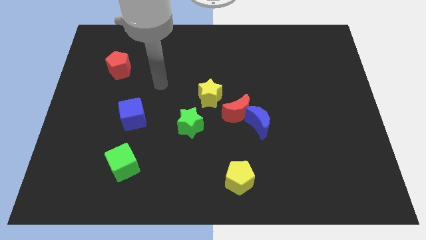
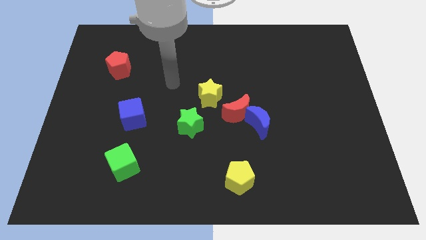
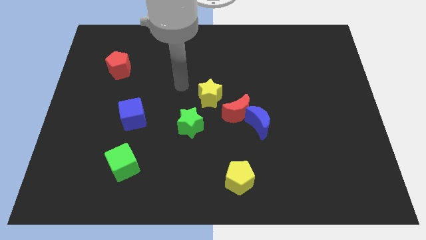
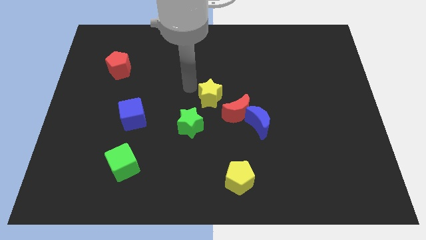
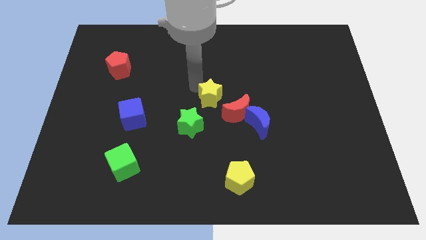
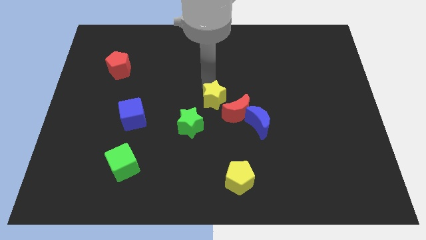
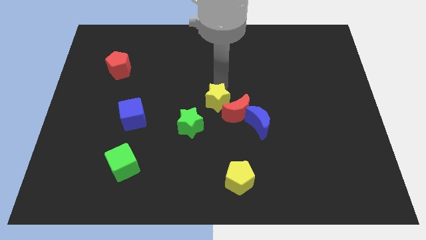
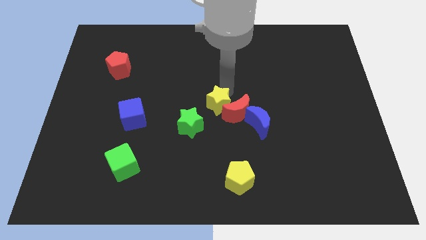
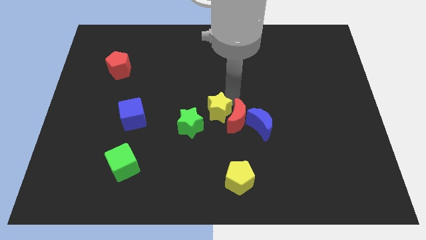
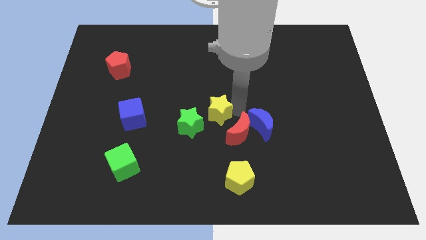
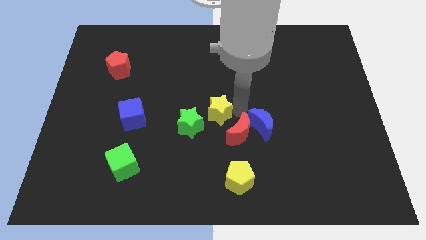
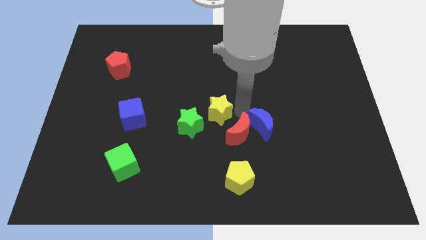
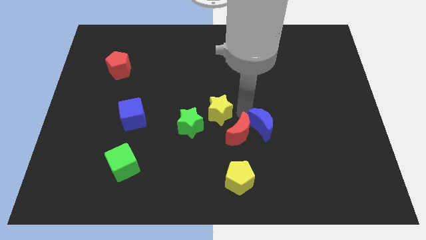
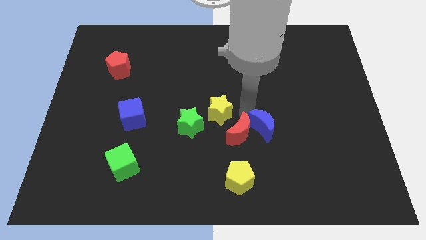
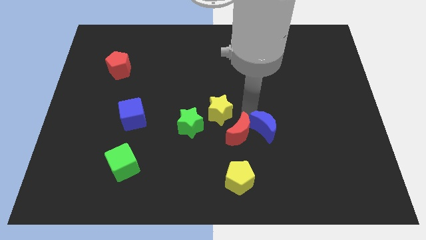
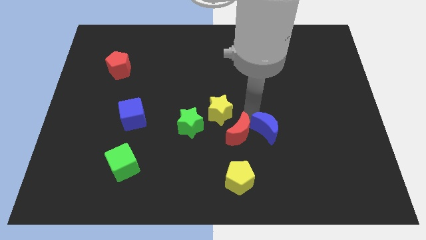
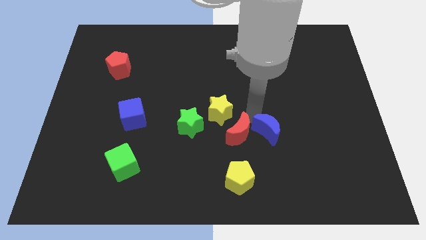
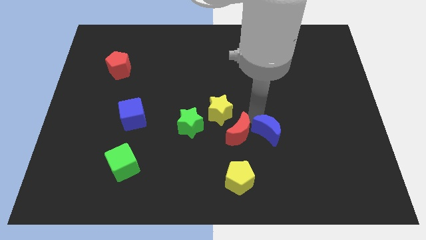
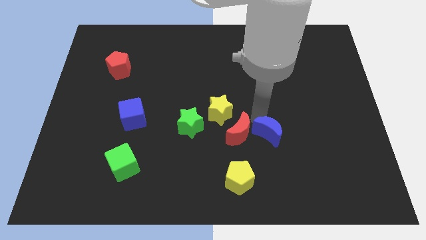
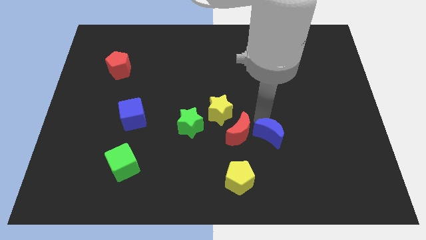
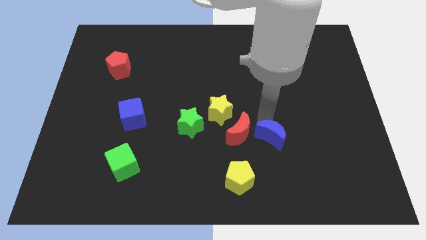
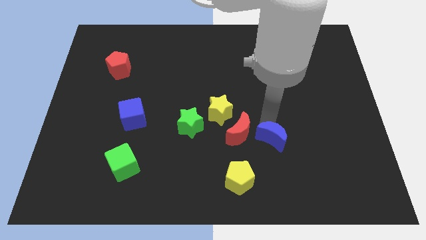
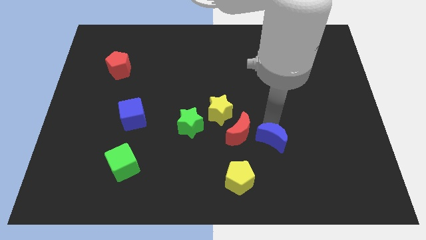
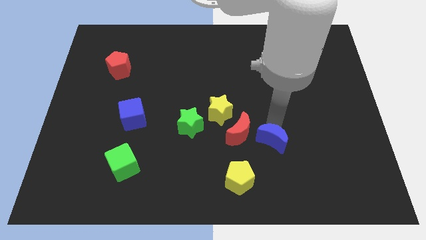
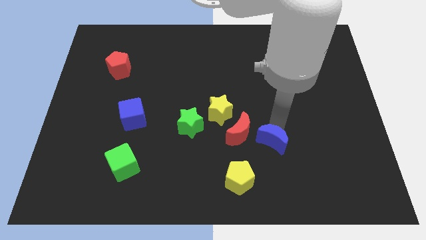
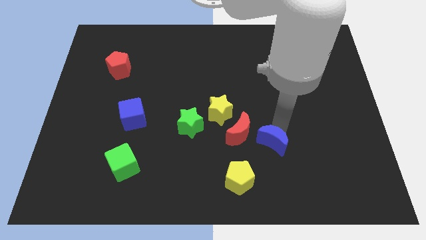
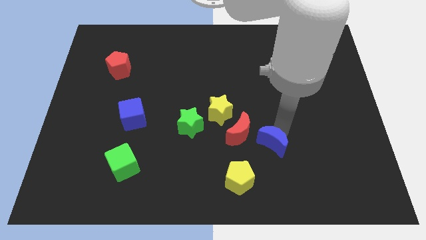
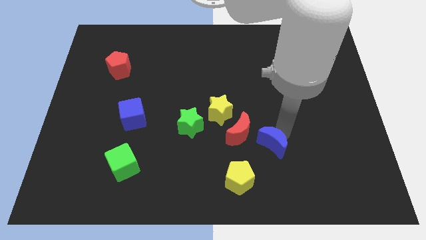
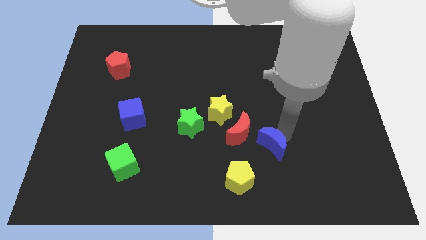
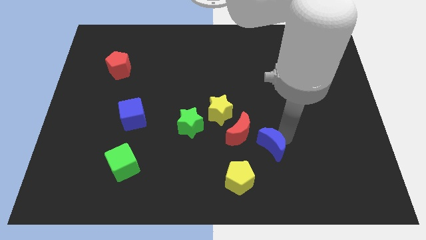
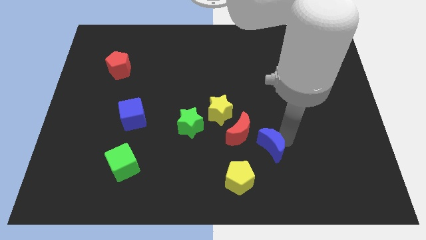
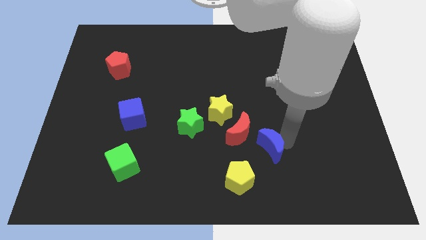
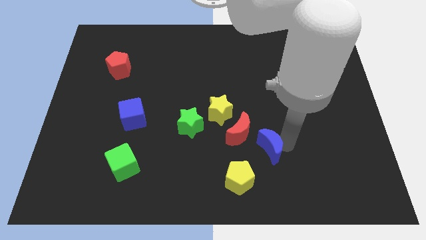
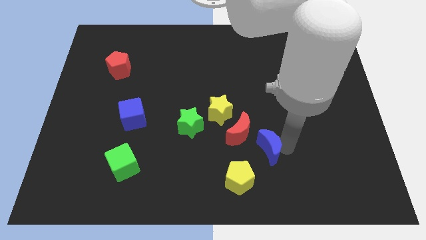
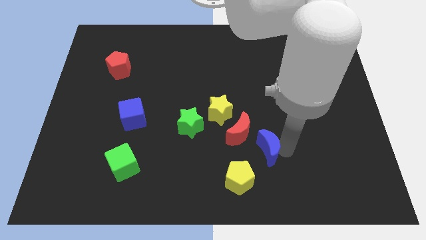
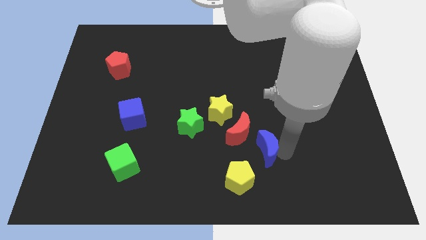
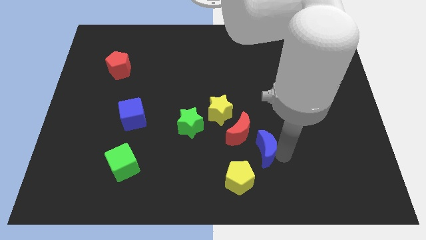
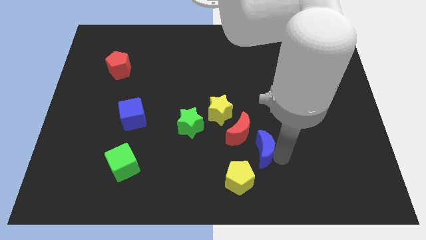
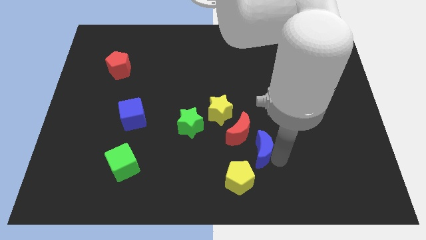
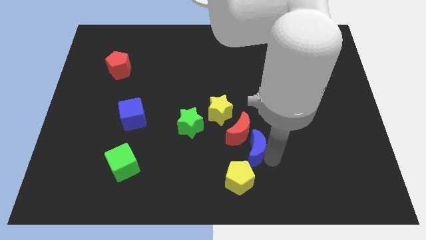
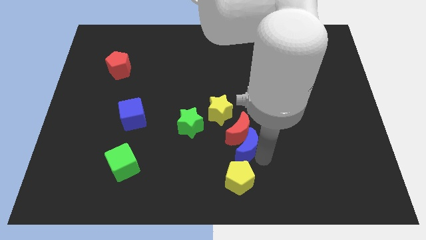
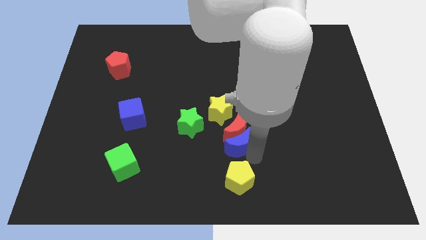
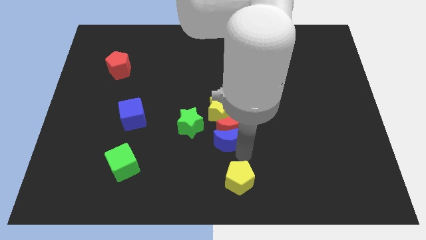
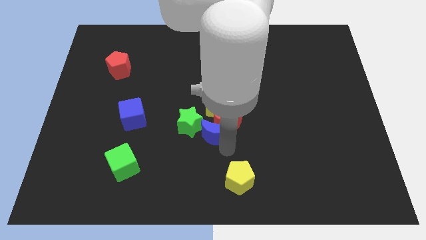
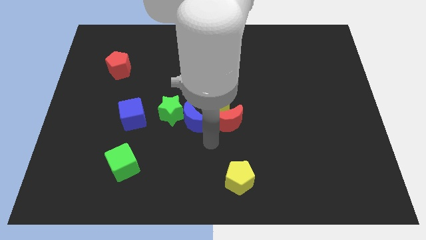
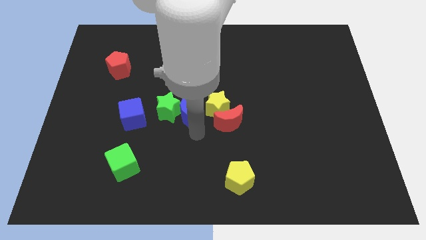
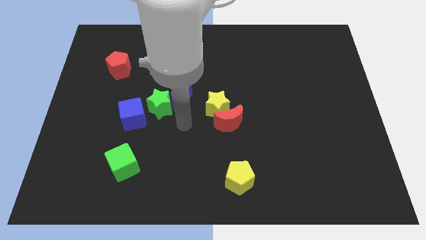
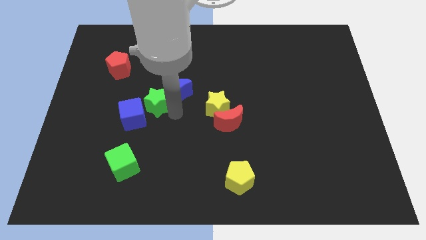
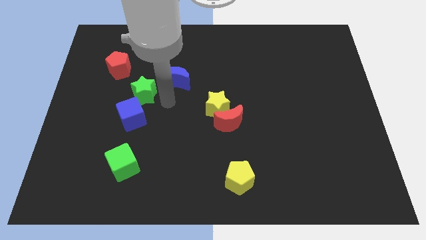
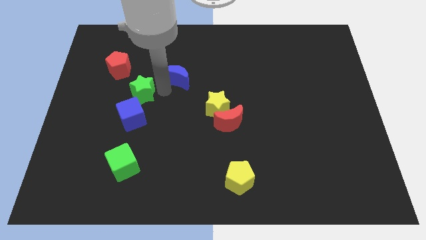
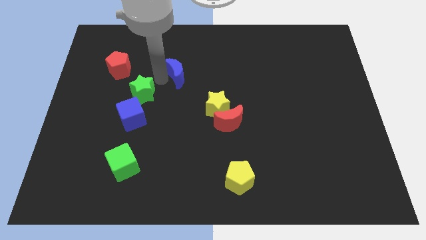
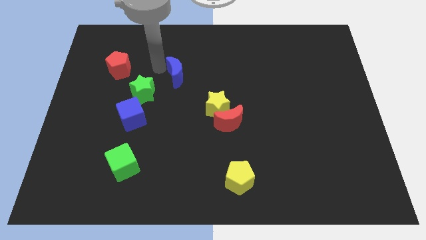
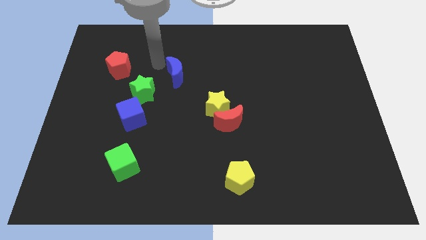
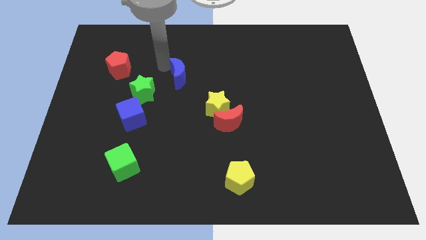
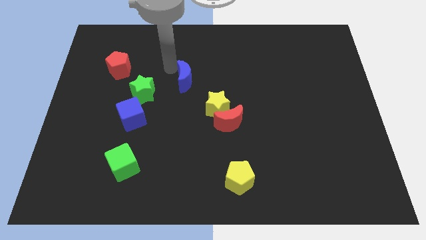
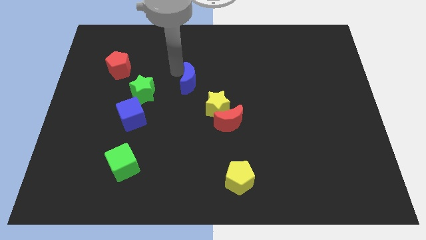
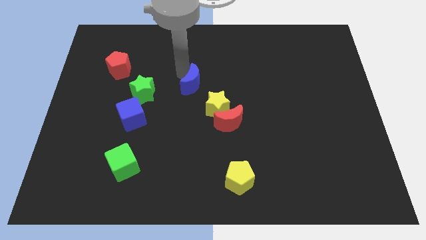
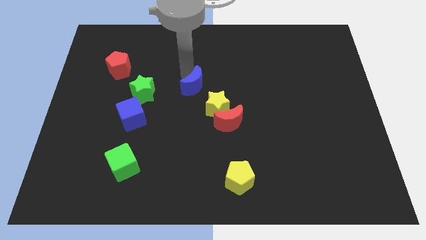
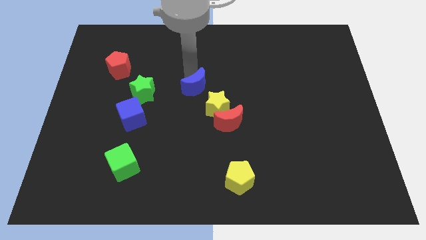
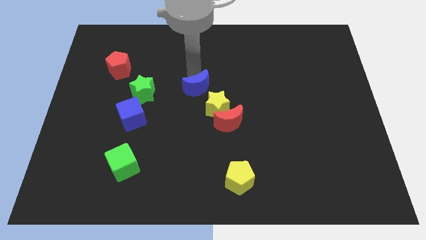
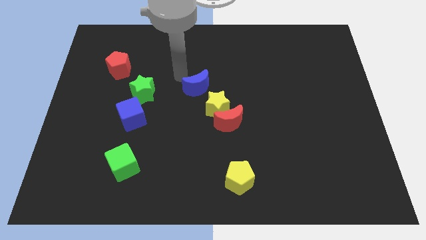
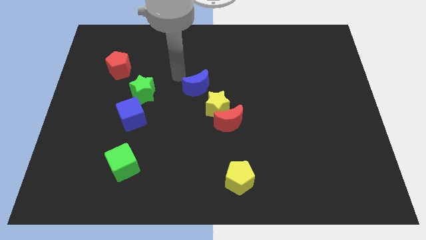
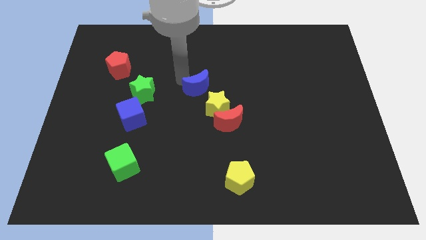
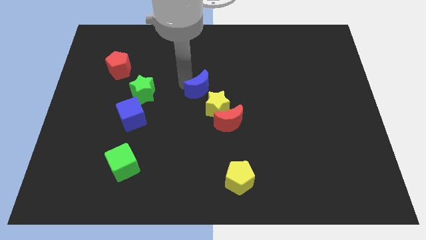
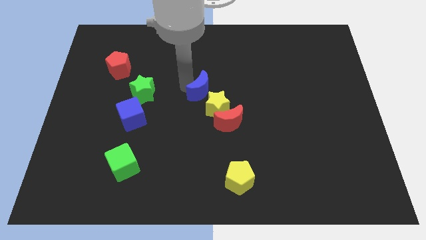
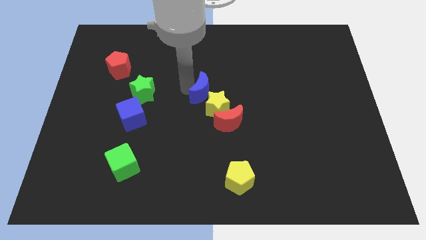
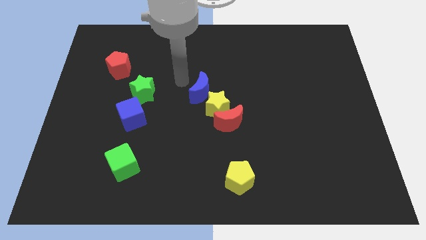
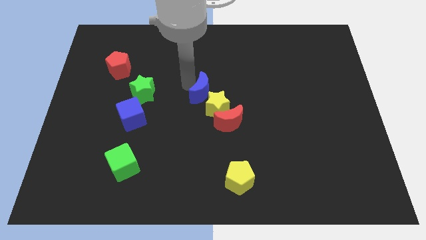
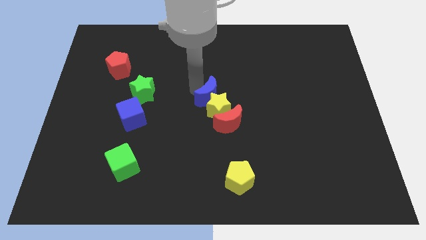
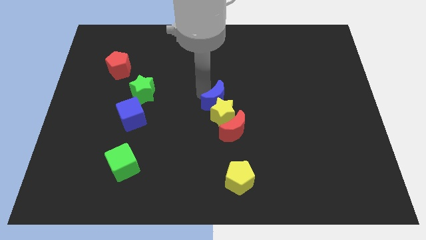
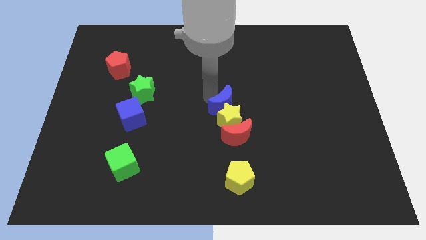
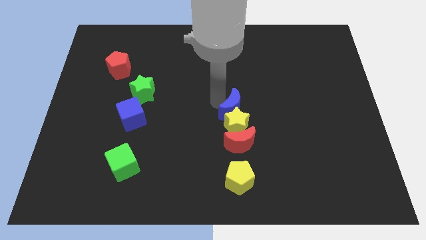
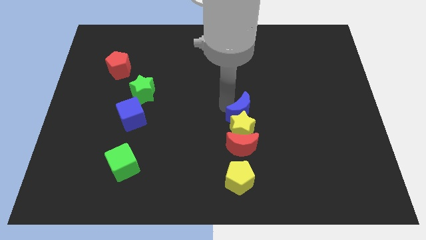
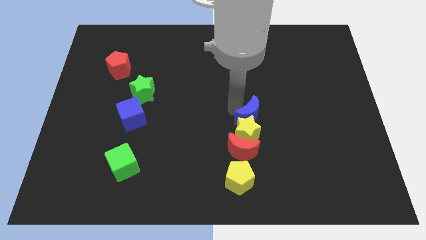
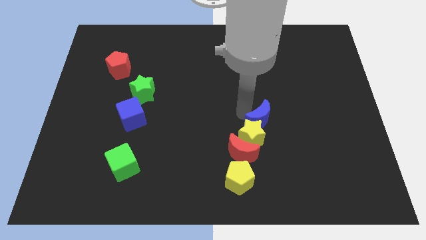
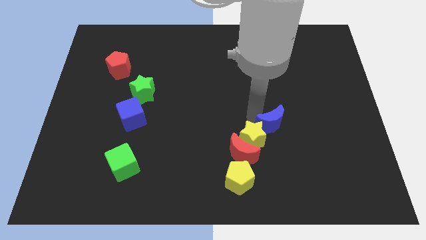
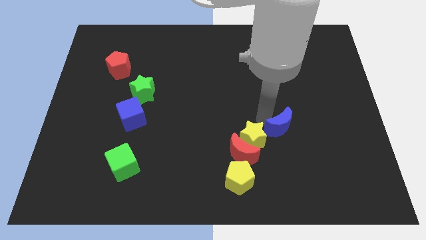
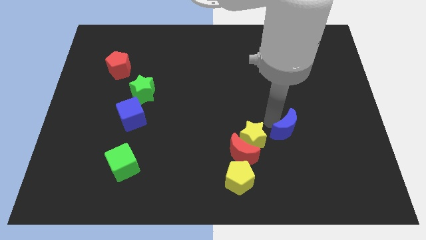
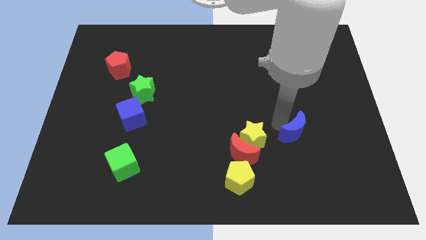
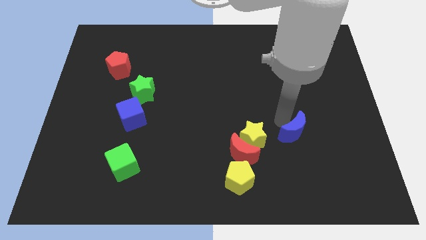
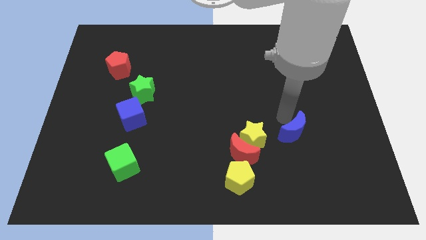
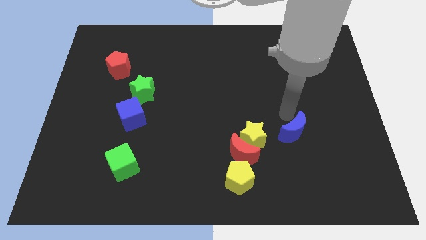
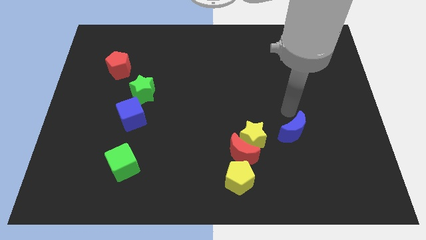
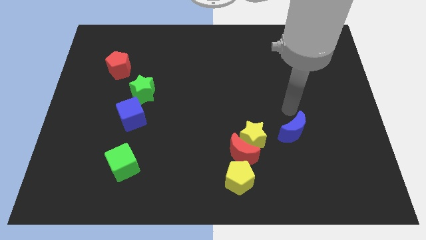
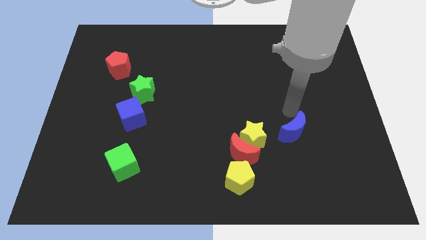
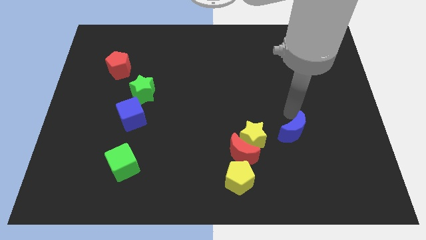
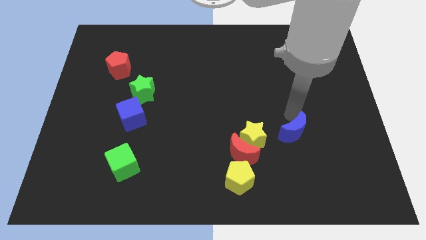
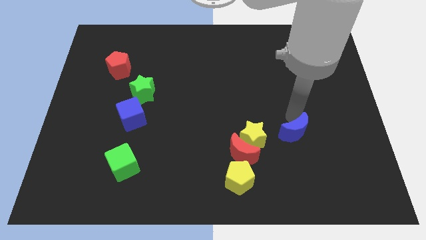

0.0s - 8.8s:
slide the blue moon downwards and to the right a little bit
